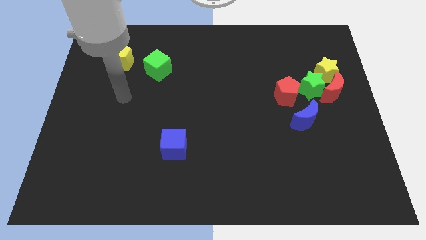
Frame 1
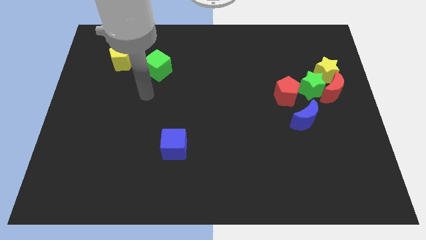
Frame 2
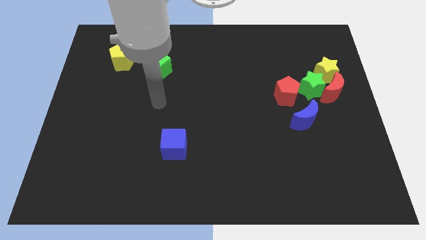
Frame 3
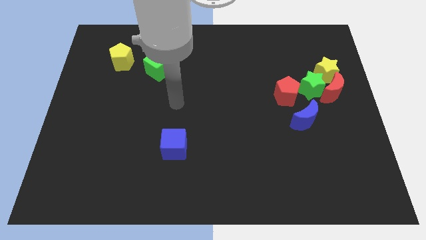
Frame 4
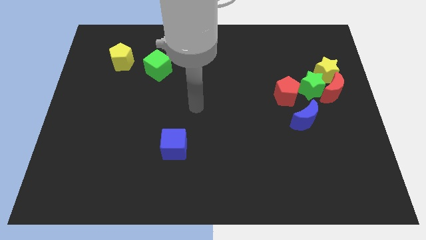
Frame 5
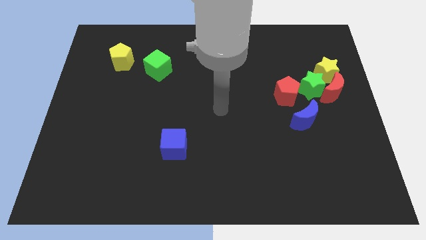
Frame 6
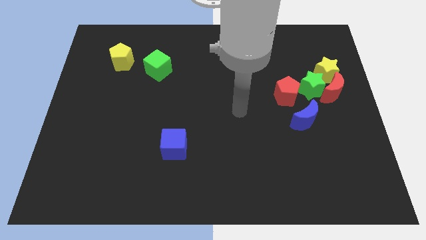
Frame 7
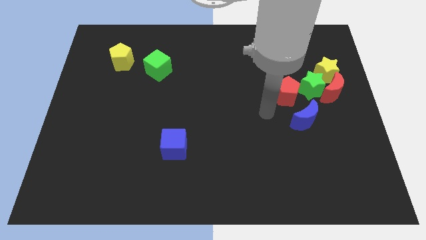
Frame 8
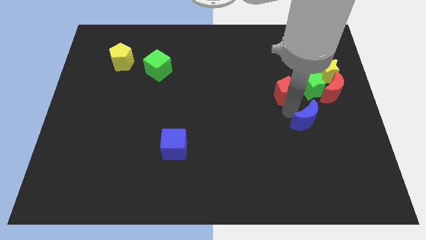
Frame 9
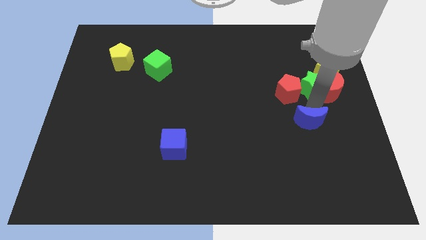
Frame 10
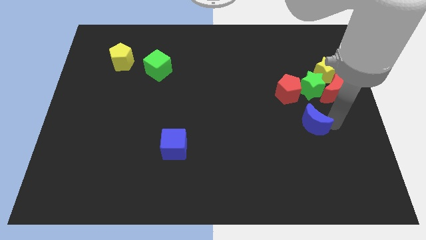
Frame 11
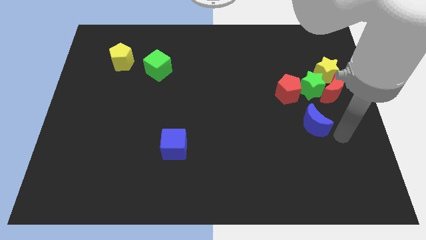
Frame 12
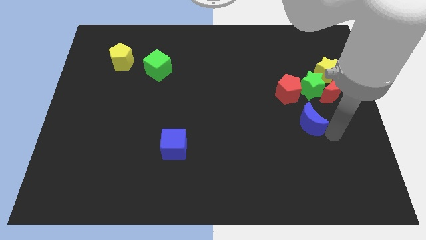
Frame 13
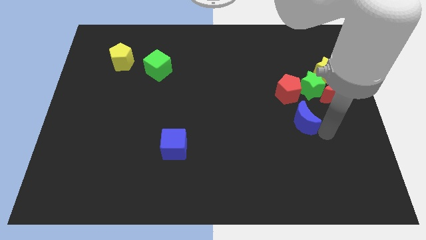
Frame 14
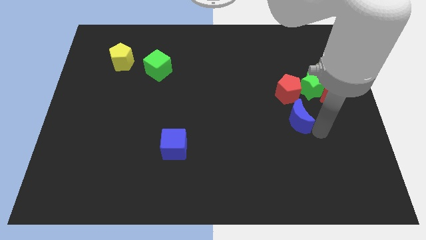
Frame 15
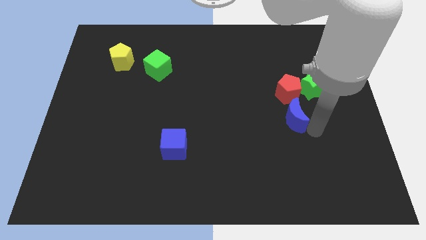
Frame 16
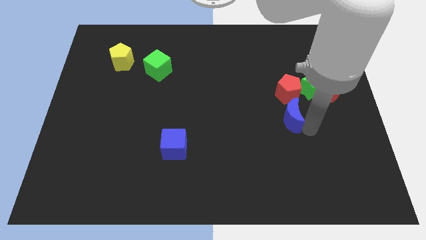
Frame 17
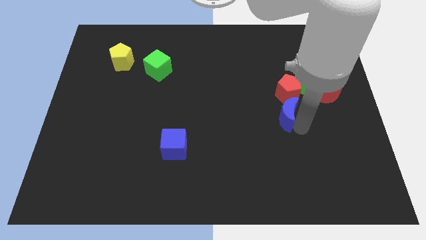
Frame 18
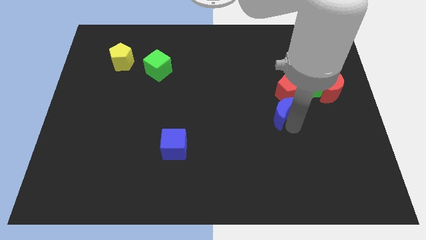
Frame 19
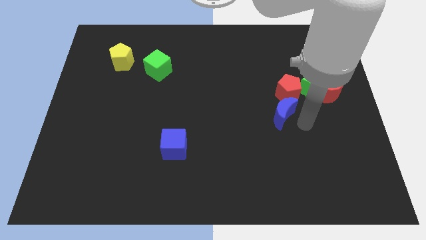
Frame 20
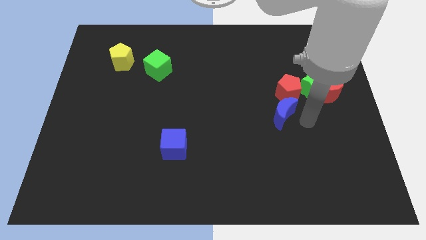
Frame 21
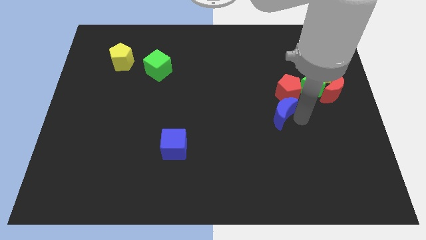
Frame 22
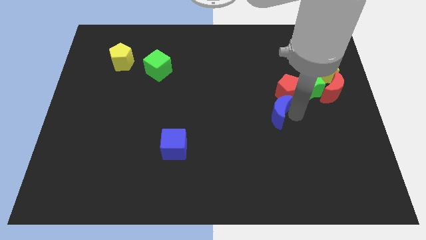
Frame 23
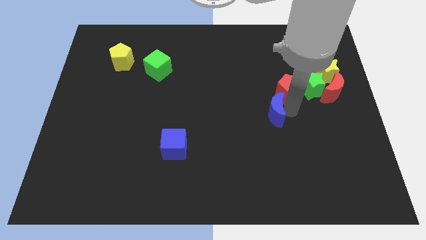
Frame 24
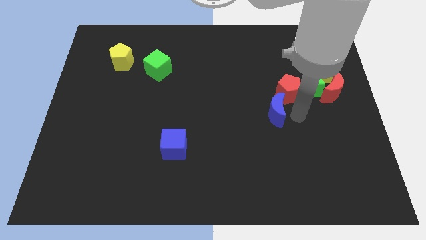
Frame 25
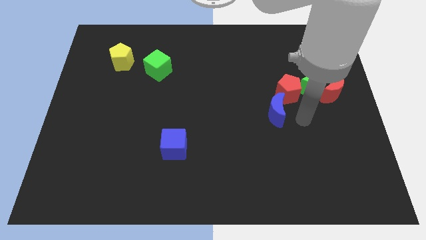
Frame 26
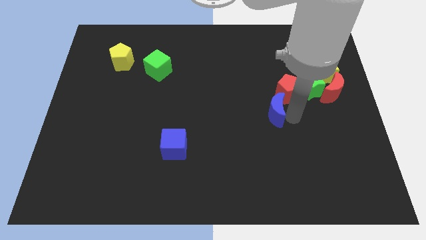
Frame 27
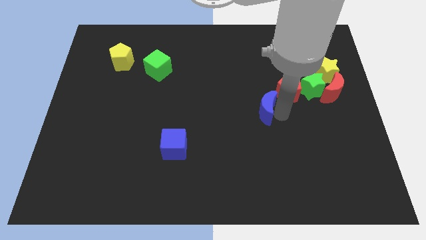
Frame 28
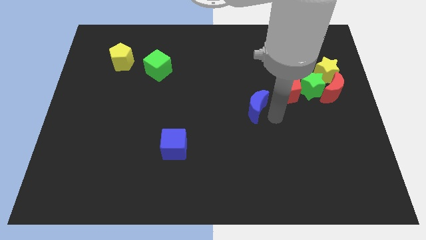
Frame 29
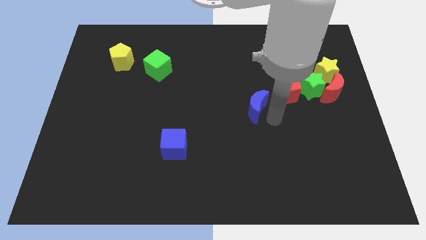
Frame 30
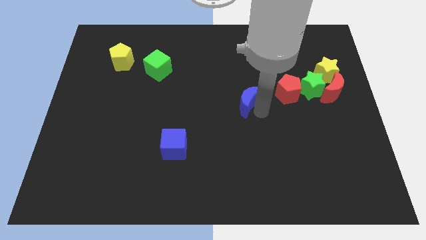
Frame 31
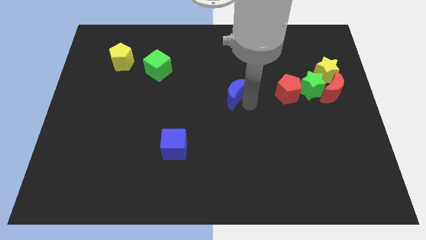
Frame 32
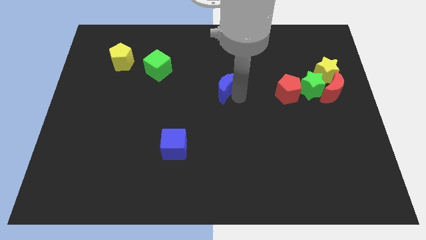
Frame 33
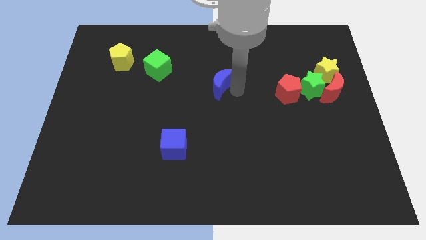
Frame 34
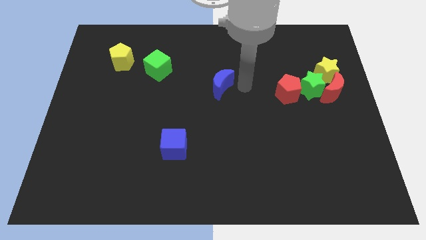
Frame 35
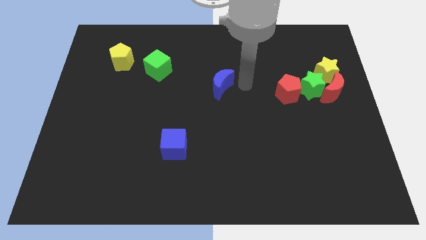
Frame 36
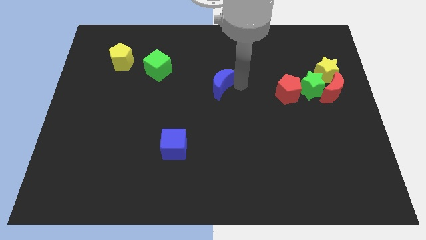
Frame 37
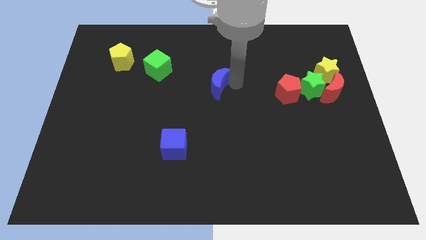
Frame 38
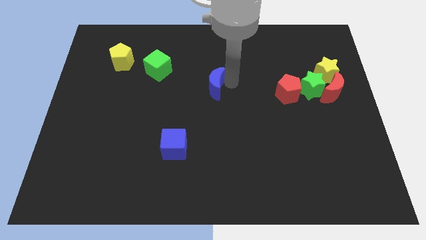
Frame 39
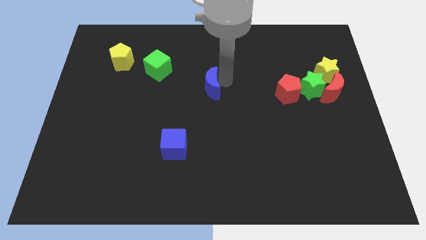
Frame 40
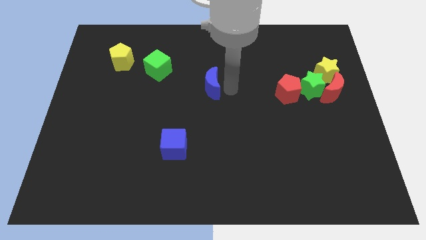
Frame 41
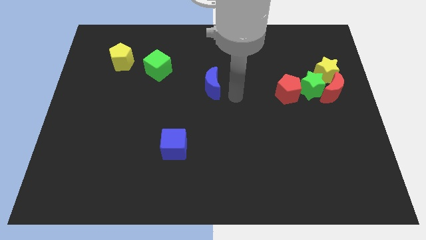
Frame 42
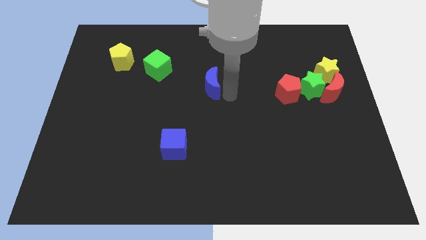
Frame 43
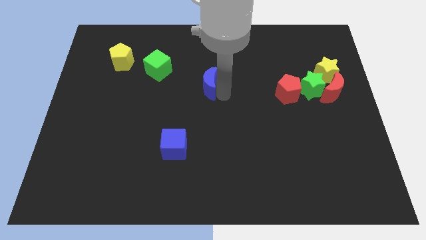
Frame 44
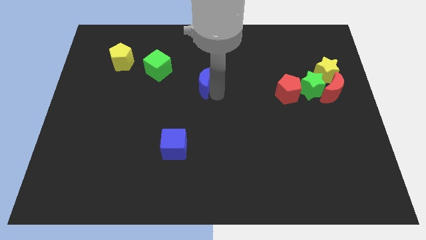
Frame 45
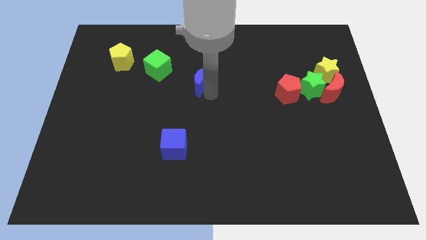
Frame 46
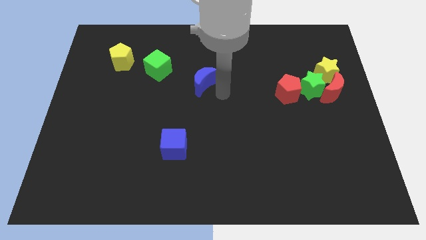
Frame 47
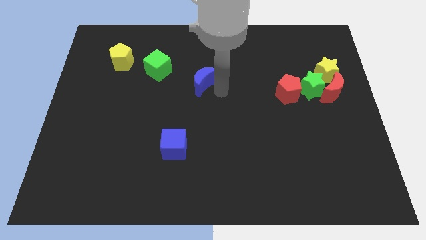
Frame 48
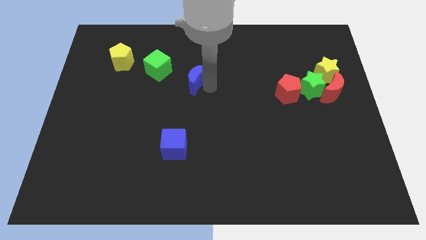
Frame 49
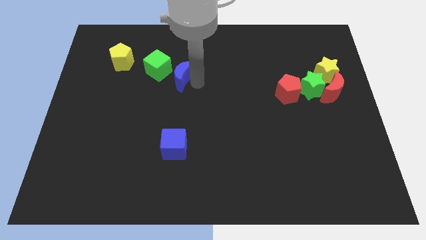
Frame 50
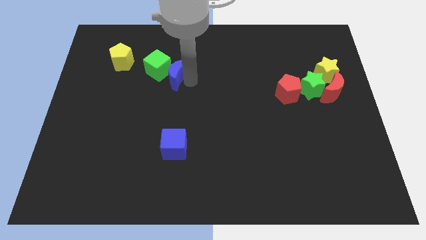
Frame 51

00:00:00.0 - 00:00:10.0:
slide the blue moon to the green cube

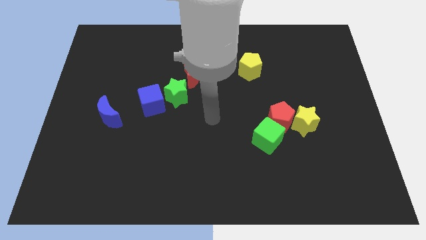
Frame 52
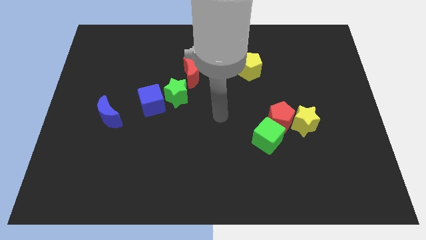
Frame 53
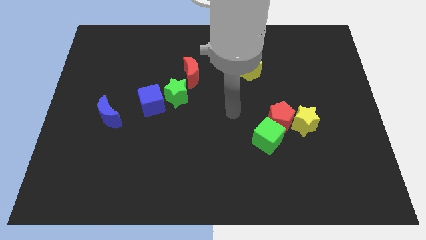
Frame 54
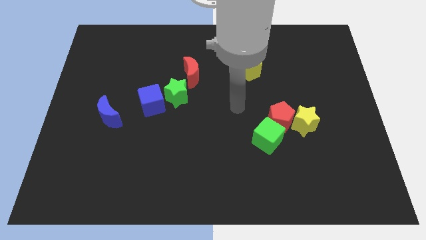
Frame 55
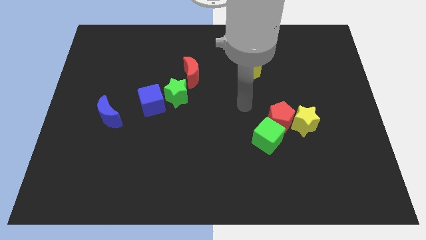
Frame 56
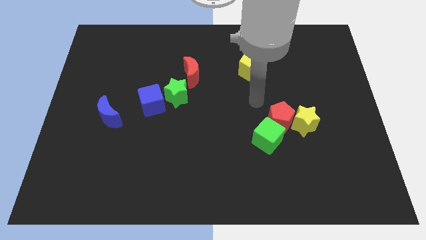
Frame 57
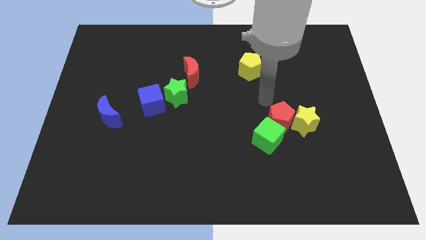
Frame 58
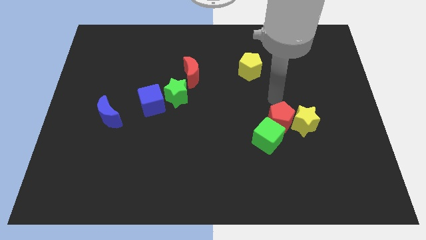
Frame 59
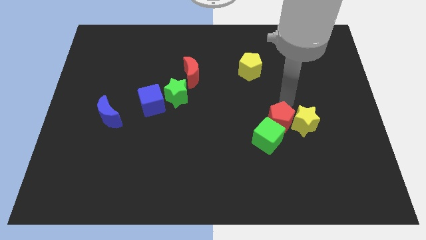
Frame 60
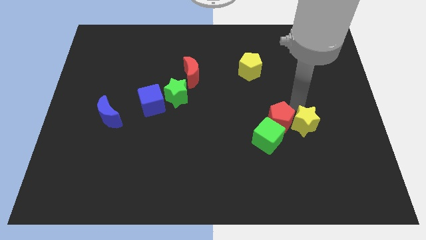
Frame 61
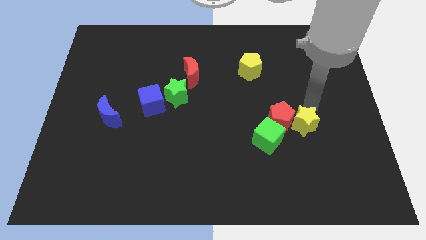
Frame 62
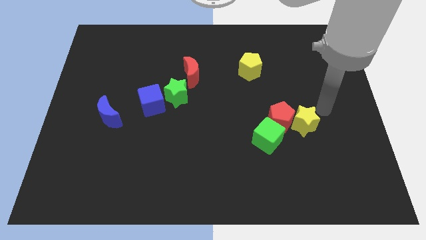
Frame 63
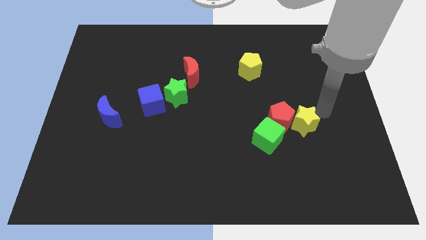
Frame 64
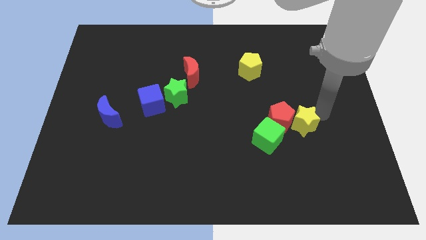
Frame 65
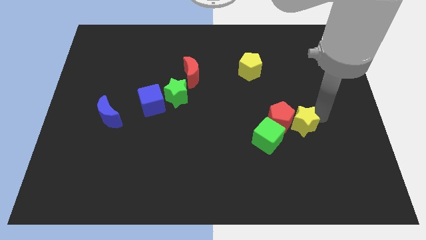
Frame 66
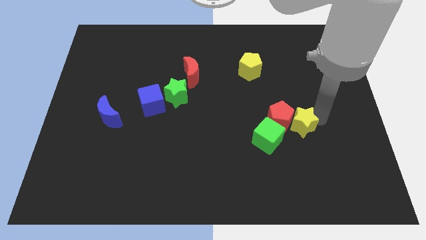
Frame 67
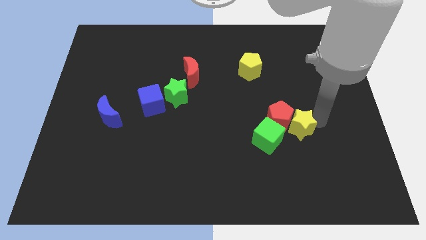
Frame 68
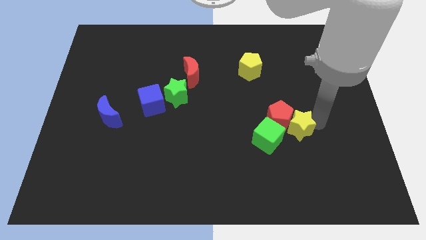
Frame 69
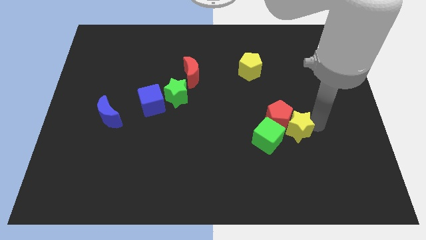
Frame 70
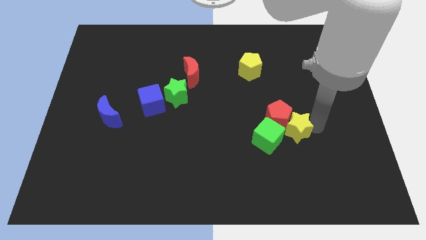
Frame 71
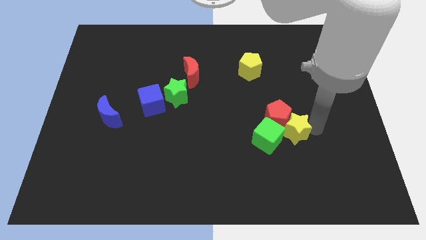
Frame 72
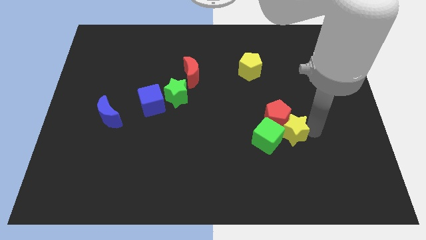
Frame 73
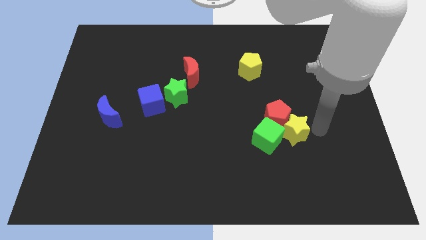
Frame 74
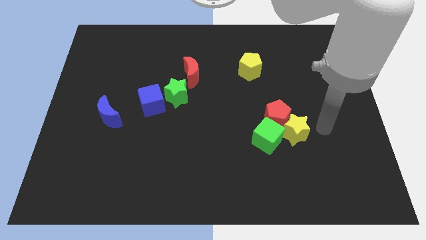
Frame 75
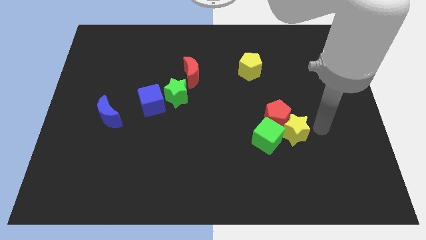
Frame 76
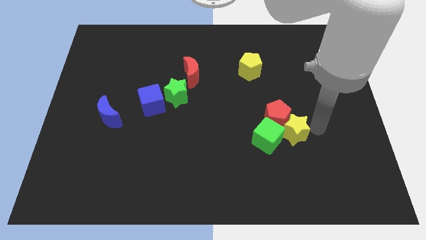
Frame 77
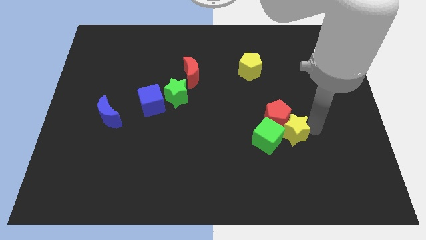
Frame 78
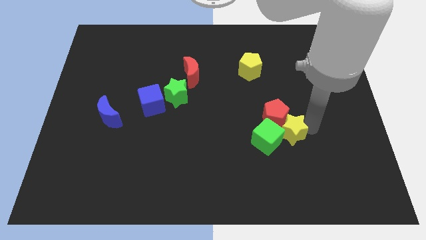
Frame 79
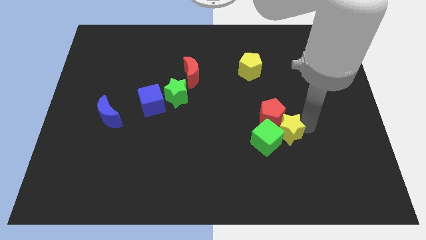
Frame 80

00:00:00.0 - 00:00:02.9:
slide the yellow star next to the green cube
